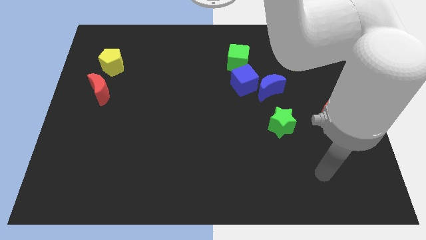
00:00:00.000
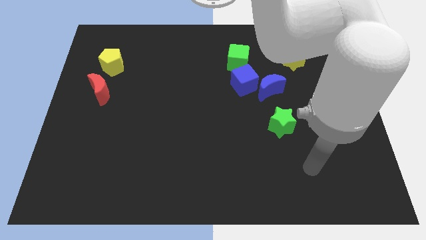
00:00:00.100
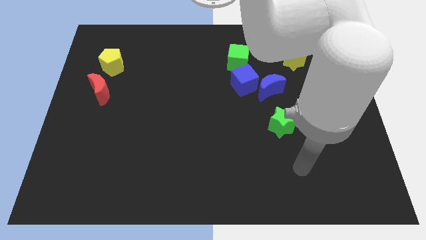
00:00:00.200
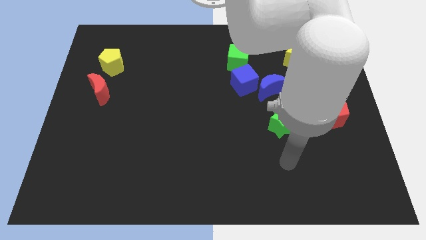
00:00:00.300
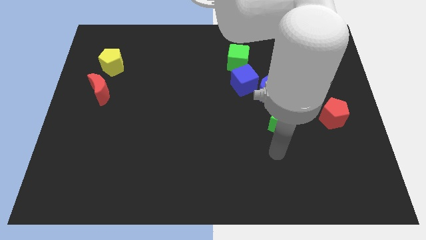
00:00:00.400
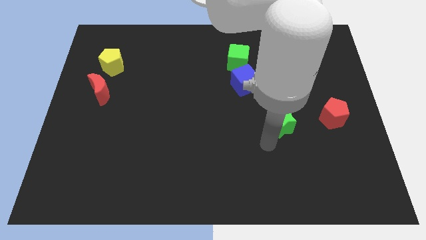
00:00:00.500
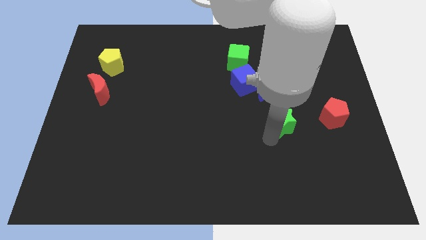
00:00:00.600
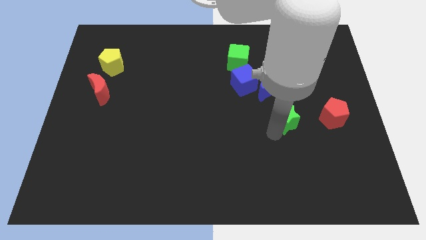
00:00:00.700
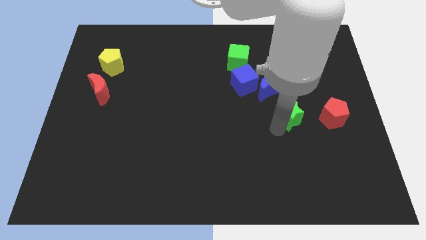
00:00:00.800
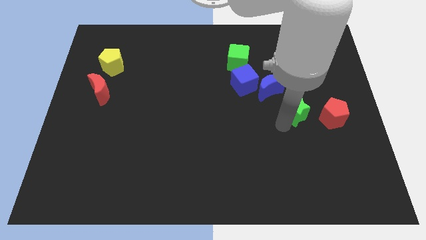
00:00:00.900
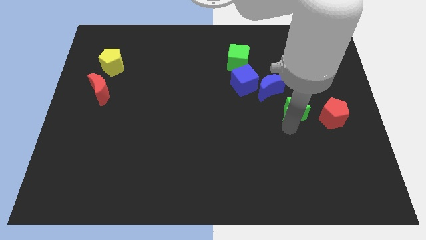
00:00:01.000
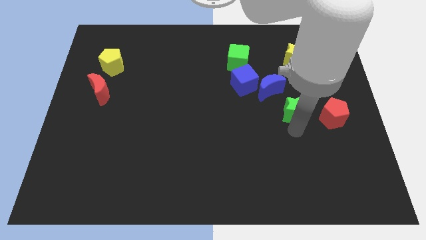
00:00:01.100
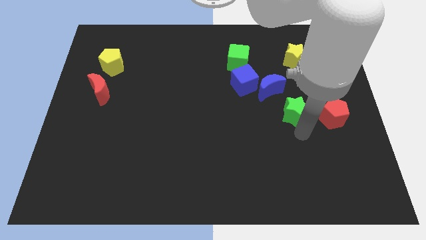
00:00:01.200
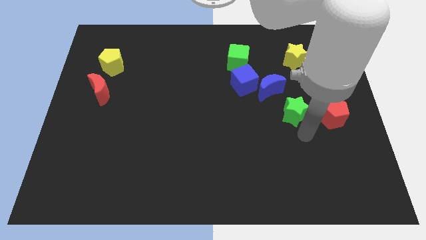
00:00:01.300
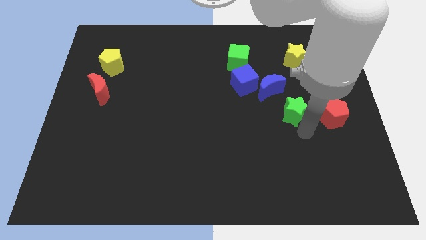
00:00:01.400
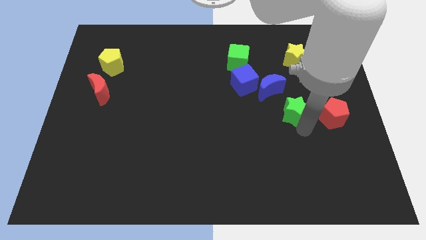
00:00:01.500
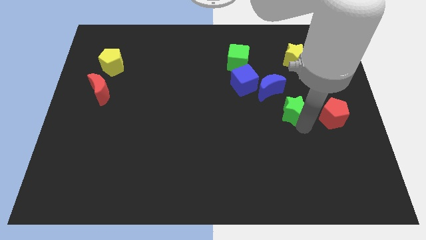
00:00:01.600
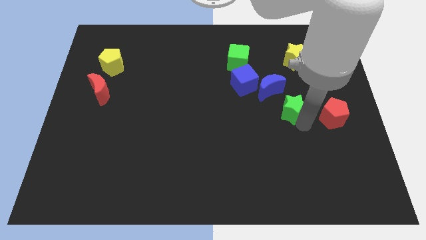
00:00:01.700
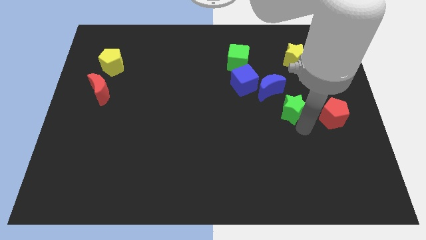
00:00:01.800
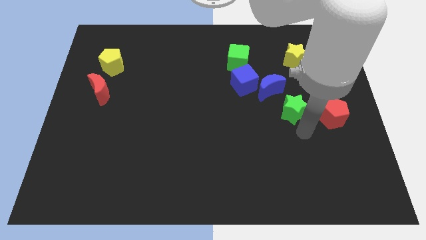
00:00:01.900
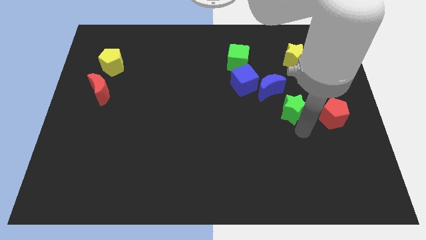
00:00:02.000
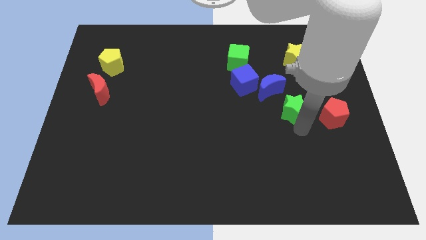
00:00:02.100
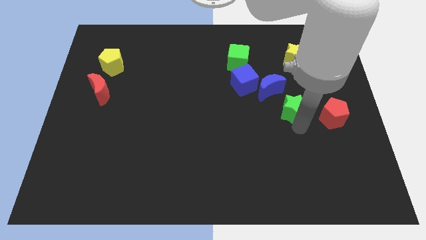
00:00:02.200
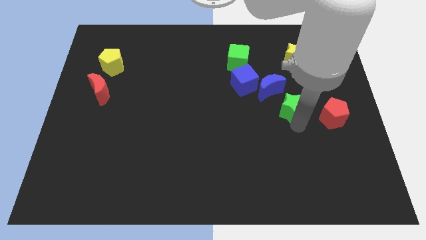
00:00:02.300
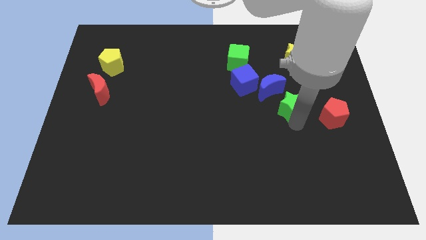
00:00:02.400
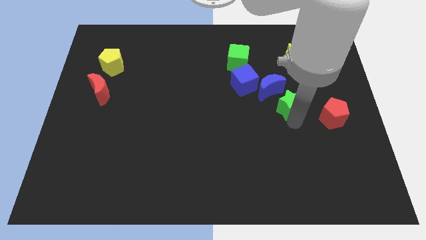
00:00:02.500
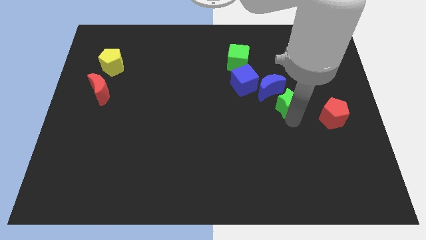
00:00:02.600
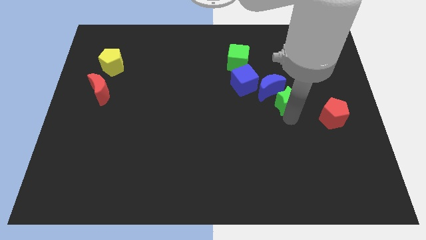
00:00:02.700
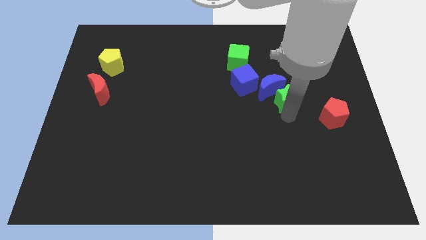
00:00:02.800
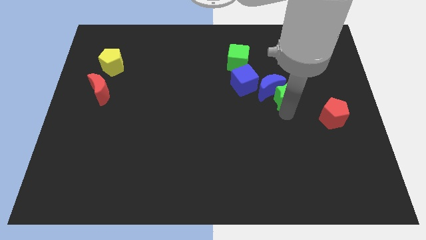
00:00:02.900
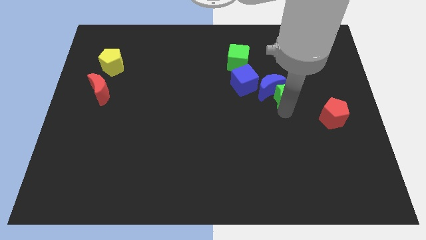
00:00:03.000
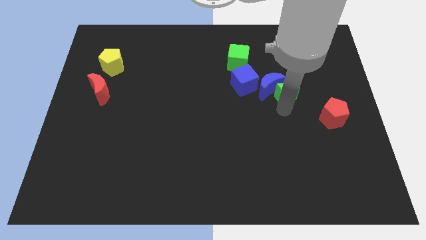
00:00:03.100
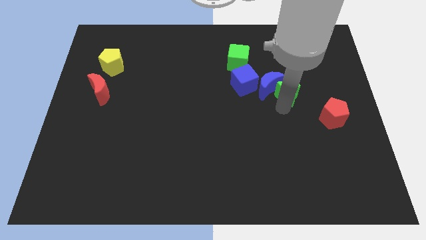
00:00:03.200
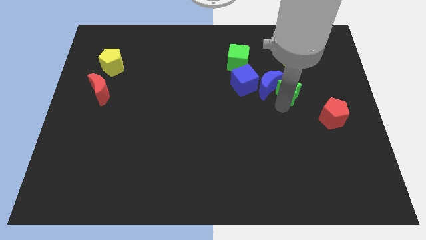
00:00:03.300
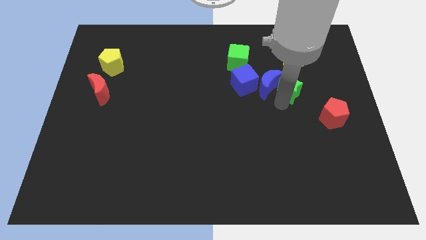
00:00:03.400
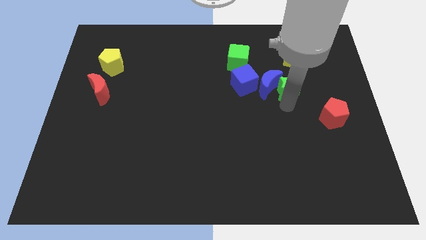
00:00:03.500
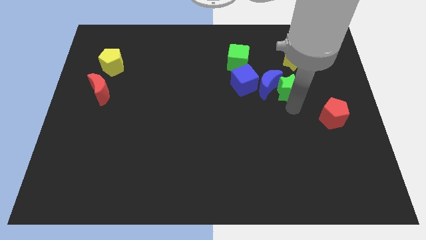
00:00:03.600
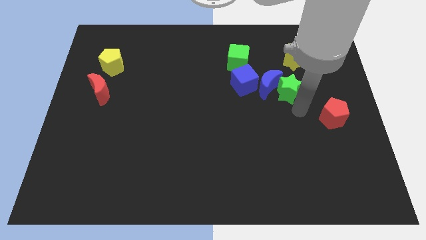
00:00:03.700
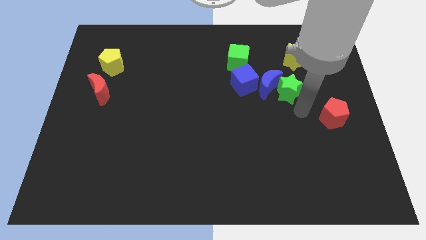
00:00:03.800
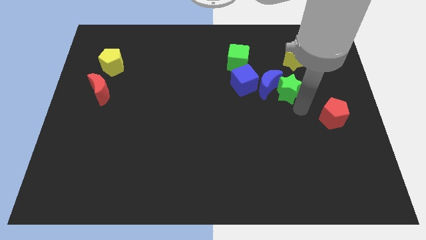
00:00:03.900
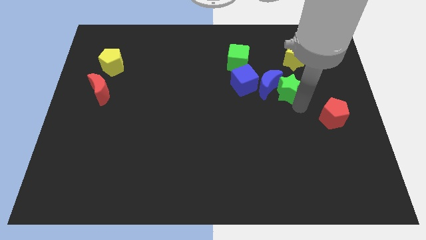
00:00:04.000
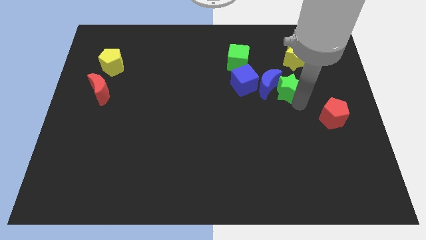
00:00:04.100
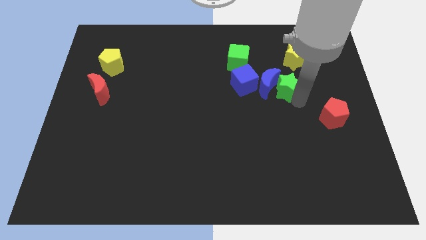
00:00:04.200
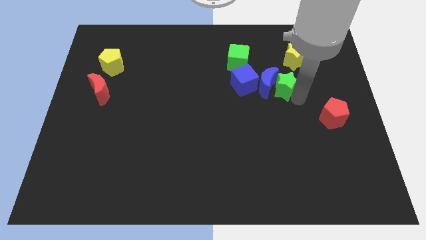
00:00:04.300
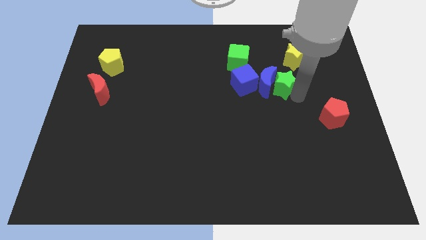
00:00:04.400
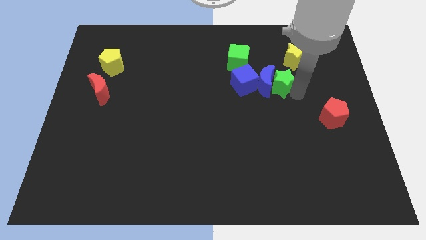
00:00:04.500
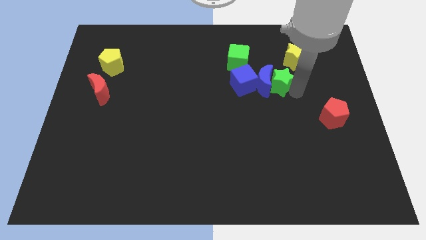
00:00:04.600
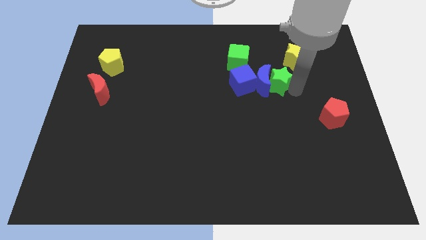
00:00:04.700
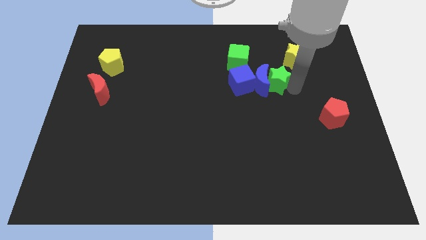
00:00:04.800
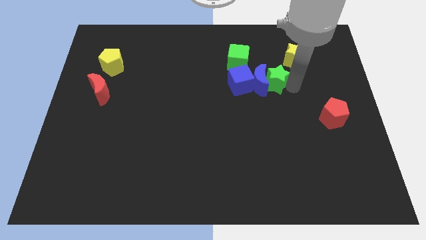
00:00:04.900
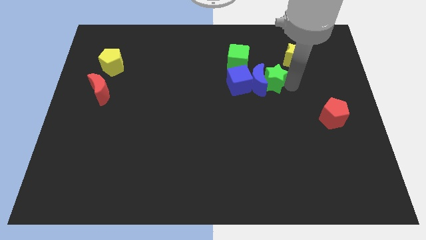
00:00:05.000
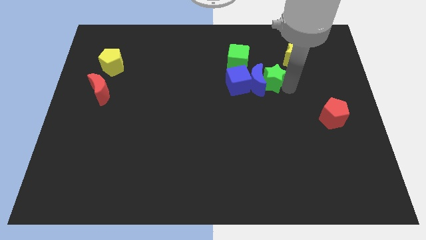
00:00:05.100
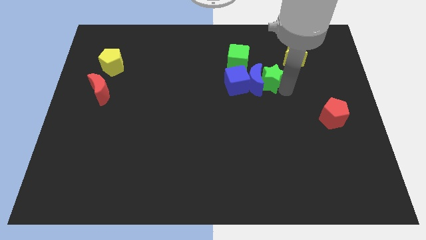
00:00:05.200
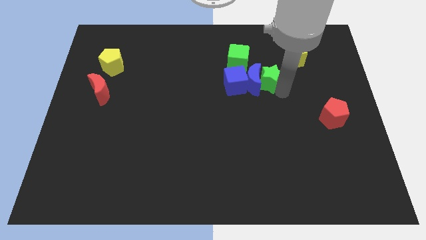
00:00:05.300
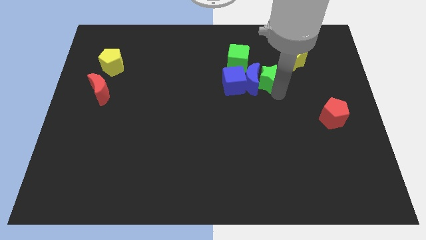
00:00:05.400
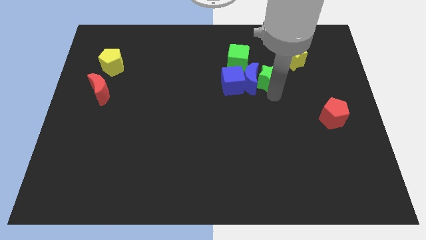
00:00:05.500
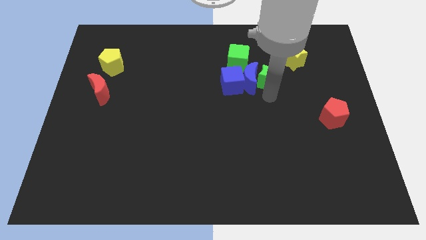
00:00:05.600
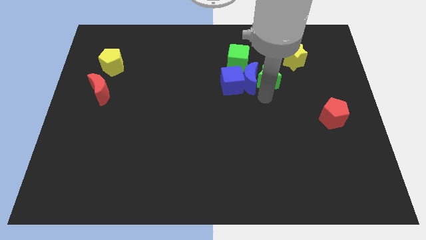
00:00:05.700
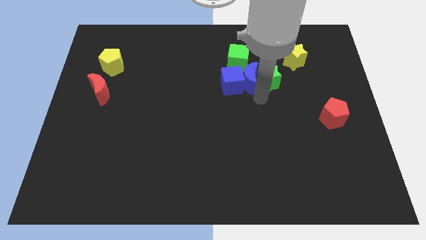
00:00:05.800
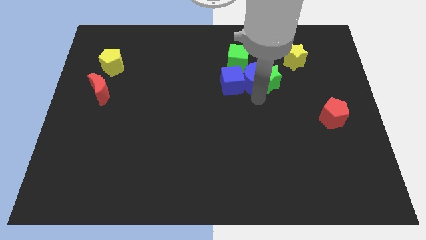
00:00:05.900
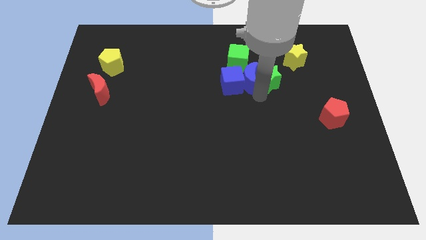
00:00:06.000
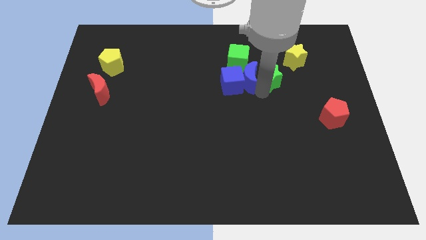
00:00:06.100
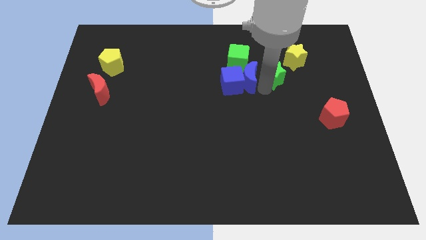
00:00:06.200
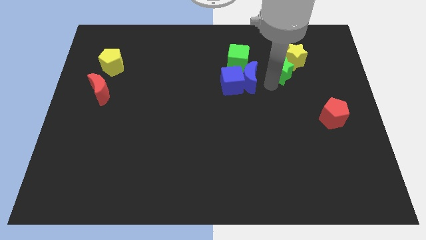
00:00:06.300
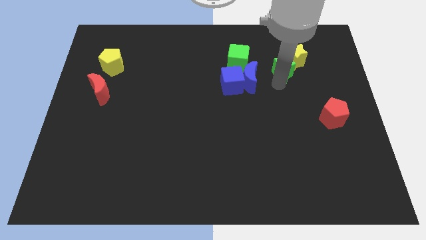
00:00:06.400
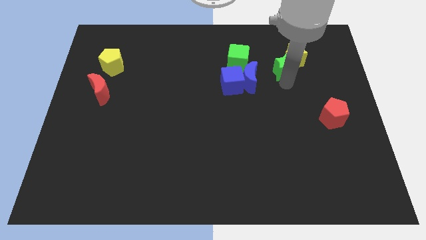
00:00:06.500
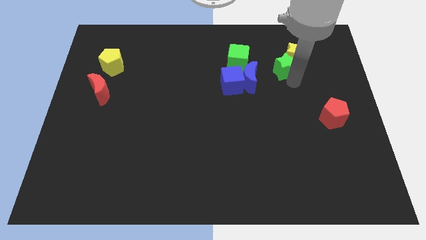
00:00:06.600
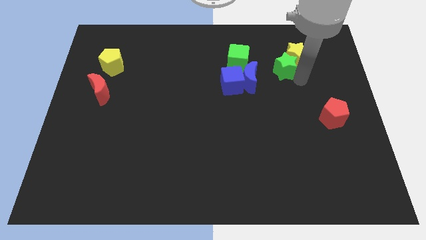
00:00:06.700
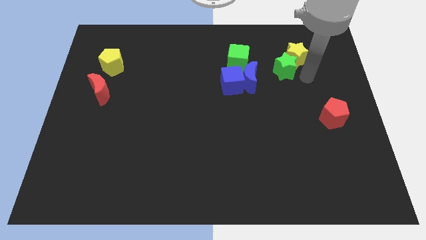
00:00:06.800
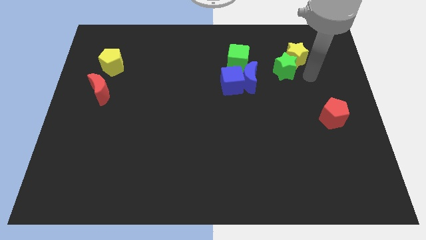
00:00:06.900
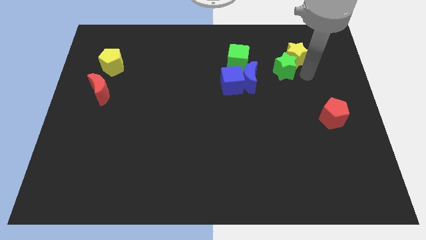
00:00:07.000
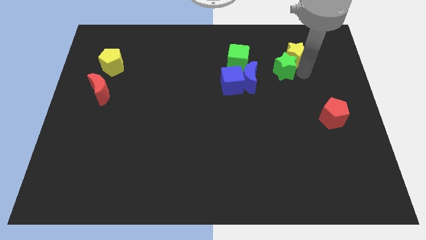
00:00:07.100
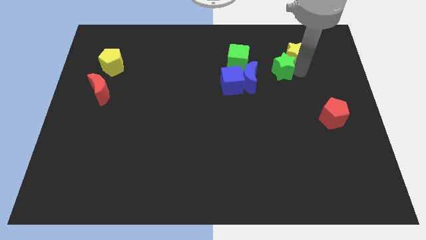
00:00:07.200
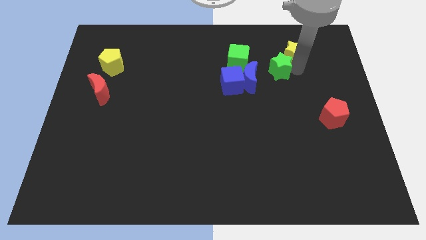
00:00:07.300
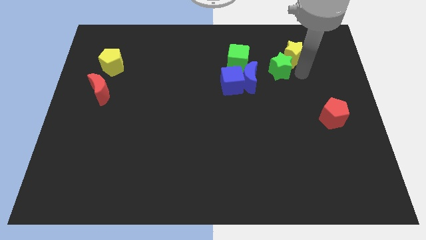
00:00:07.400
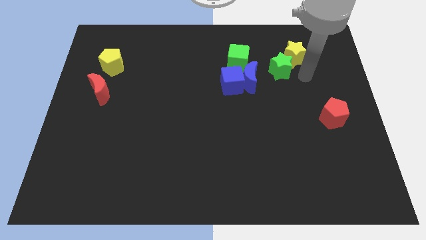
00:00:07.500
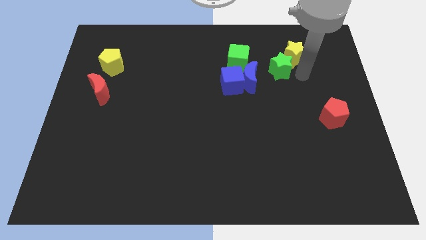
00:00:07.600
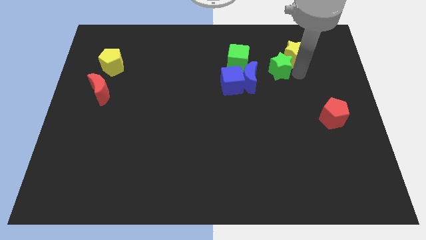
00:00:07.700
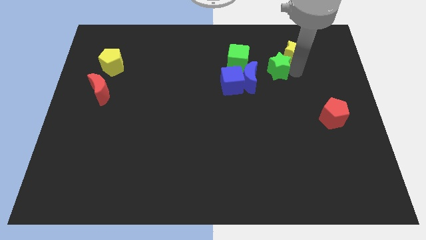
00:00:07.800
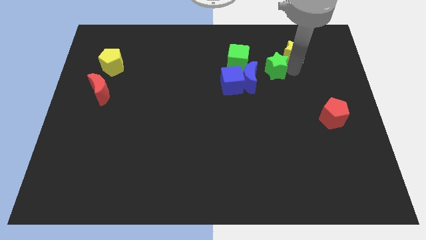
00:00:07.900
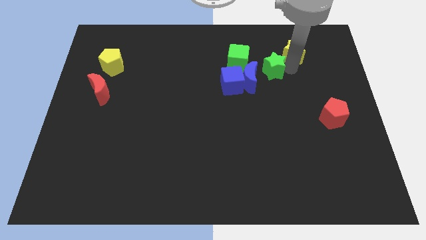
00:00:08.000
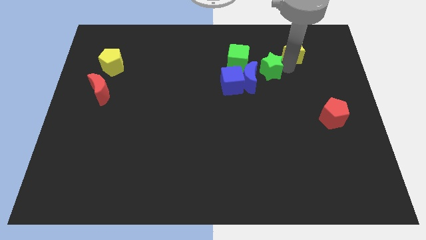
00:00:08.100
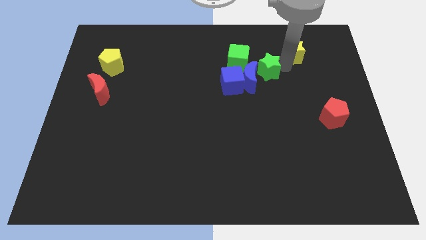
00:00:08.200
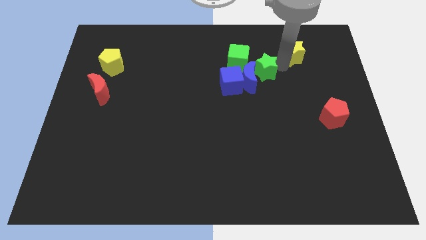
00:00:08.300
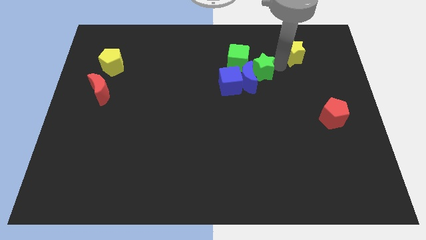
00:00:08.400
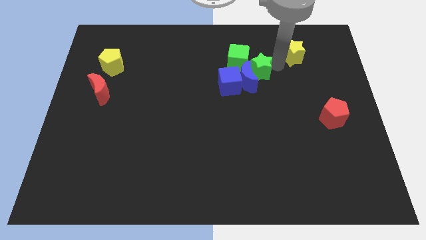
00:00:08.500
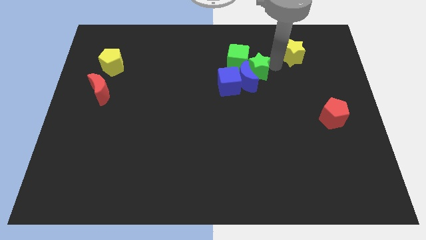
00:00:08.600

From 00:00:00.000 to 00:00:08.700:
put the green star next to the green cube
